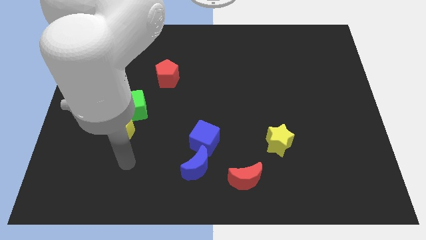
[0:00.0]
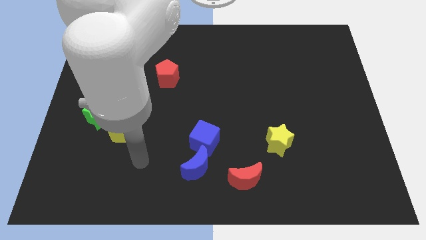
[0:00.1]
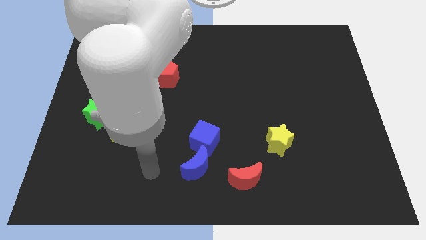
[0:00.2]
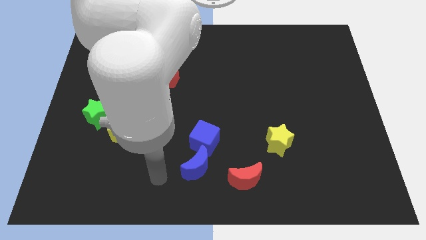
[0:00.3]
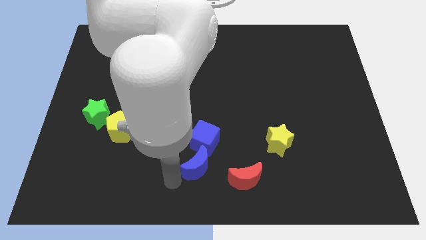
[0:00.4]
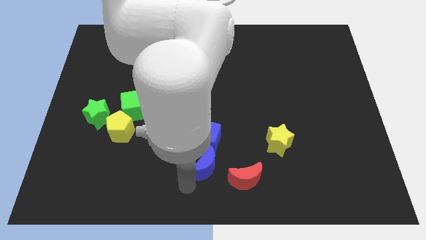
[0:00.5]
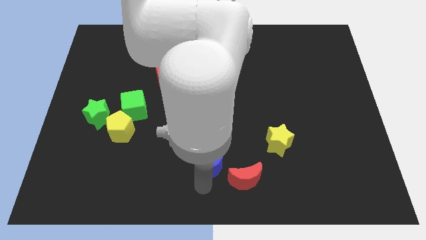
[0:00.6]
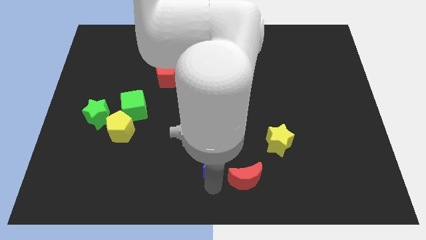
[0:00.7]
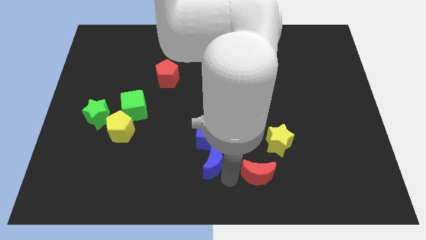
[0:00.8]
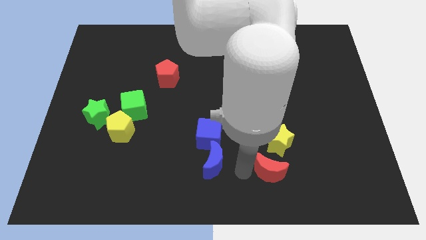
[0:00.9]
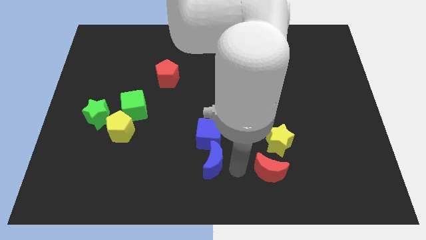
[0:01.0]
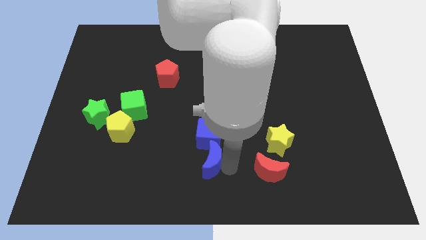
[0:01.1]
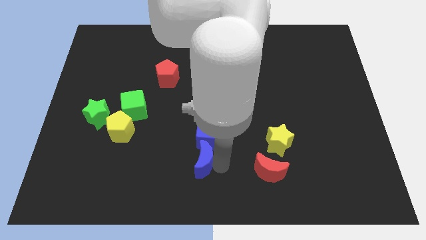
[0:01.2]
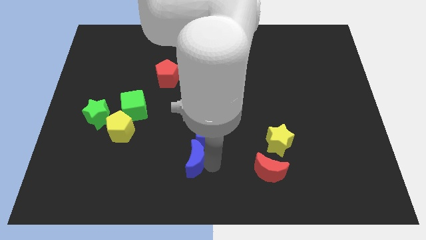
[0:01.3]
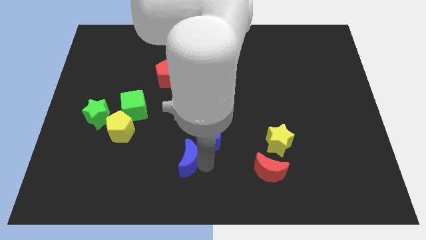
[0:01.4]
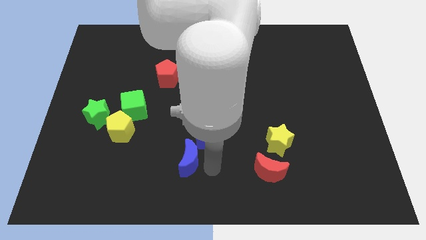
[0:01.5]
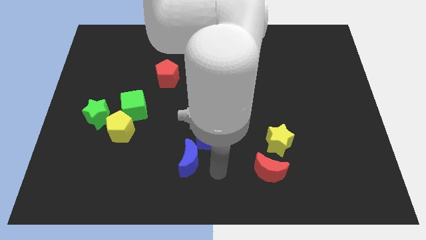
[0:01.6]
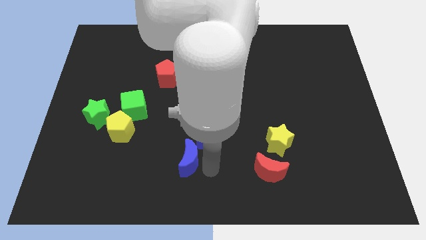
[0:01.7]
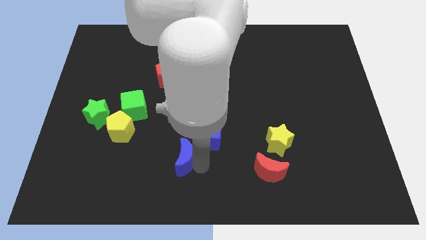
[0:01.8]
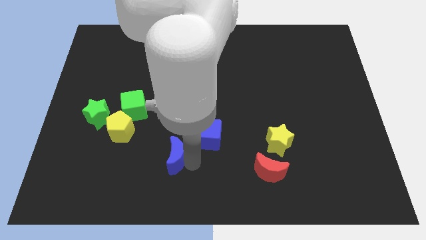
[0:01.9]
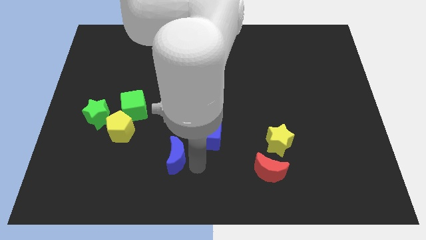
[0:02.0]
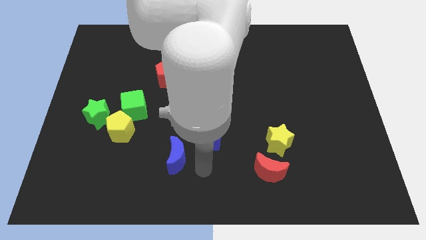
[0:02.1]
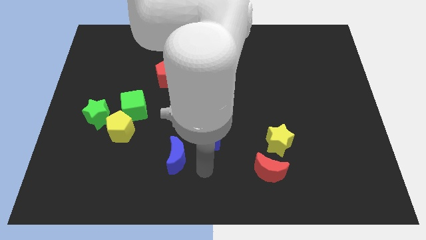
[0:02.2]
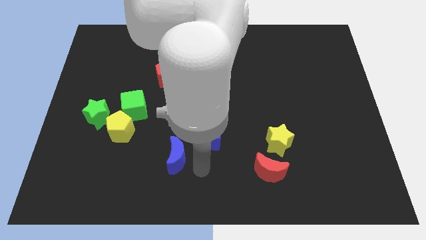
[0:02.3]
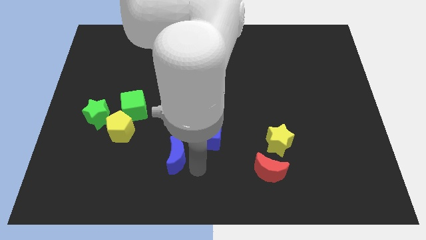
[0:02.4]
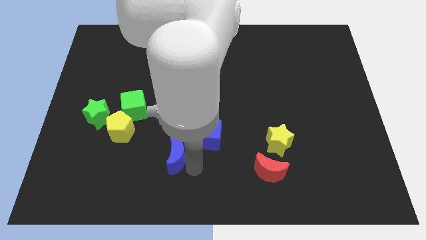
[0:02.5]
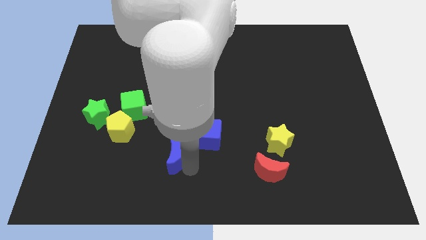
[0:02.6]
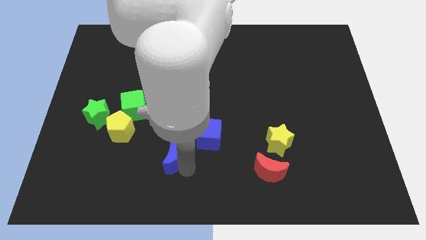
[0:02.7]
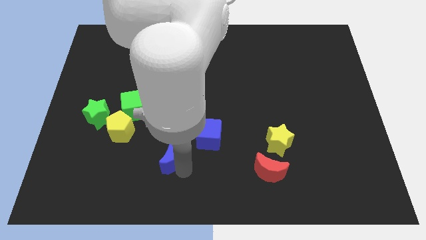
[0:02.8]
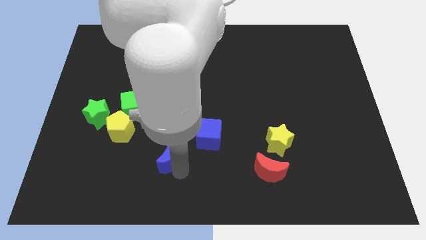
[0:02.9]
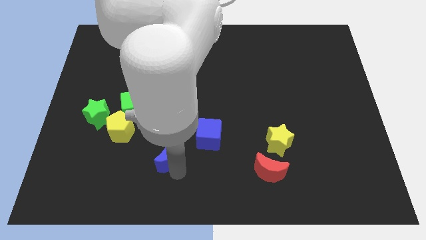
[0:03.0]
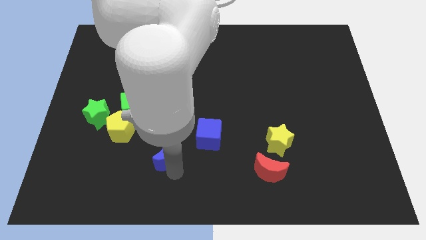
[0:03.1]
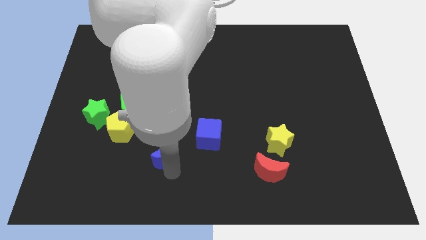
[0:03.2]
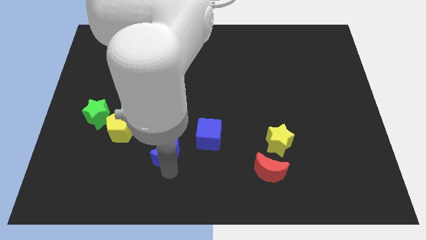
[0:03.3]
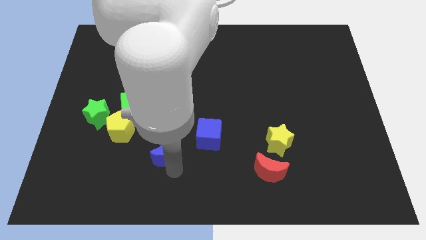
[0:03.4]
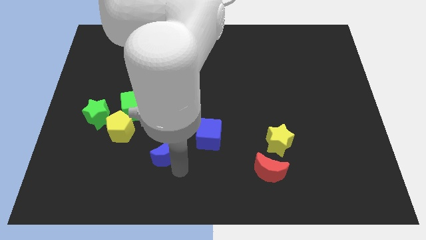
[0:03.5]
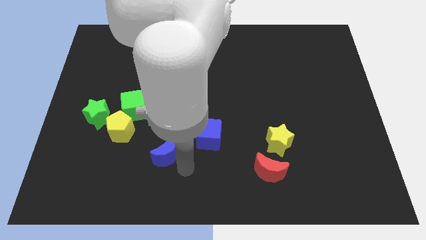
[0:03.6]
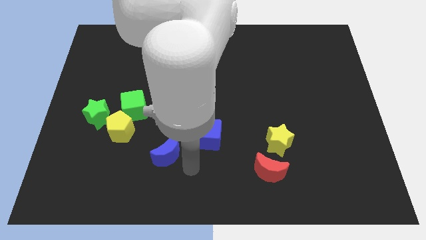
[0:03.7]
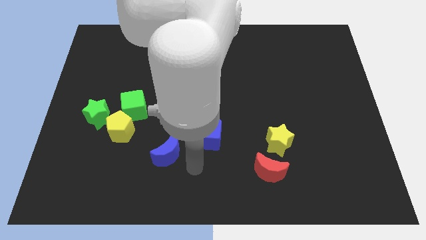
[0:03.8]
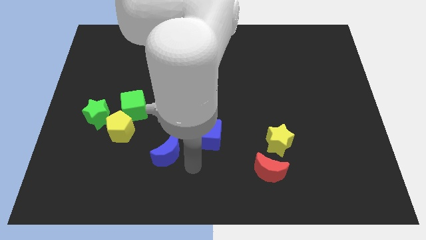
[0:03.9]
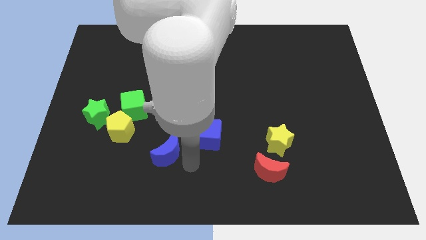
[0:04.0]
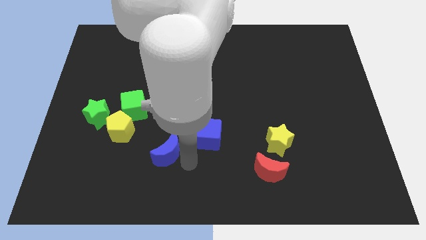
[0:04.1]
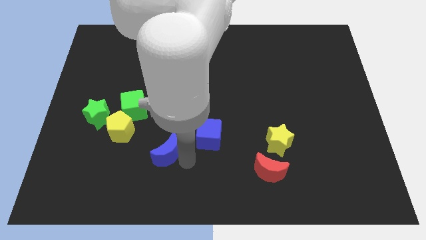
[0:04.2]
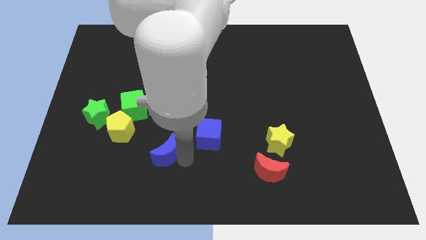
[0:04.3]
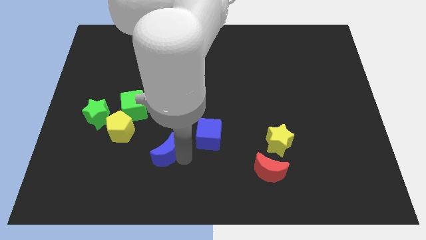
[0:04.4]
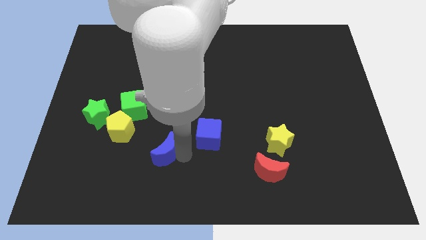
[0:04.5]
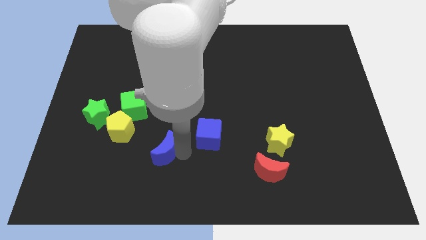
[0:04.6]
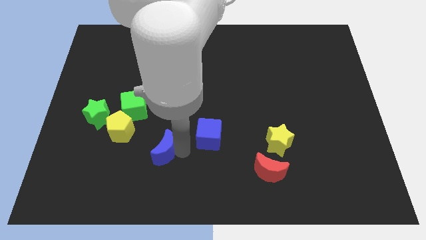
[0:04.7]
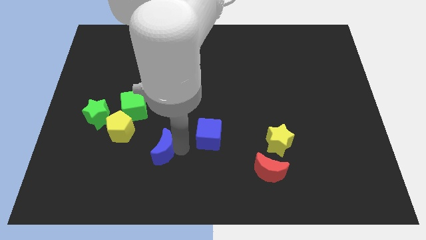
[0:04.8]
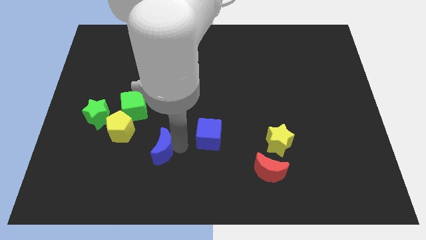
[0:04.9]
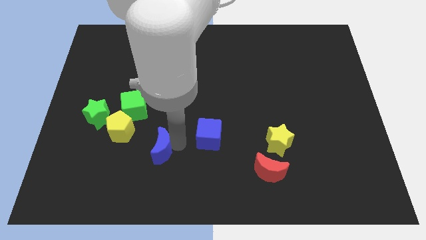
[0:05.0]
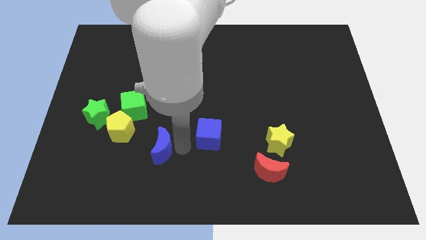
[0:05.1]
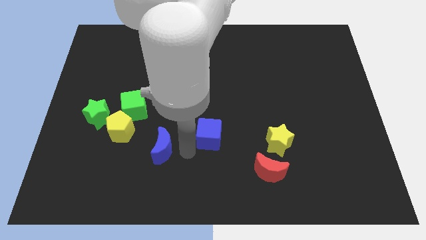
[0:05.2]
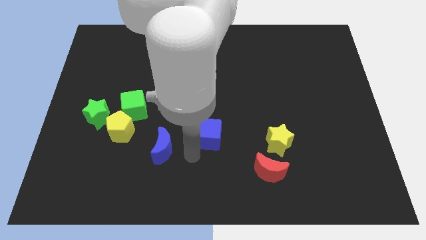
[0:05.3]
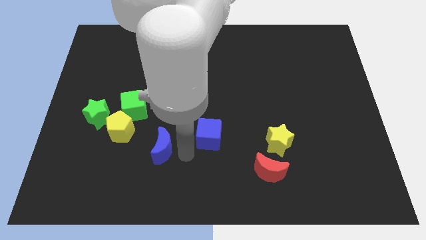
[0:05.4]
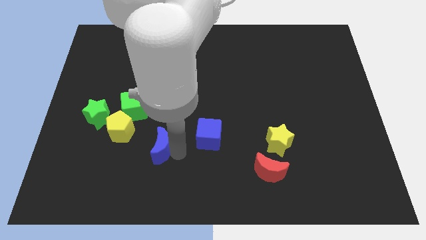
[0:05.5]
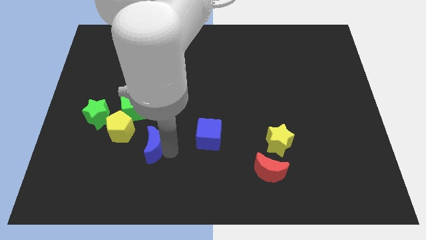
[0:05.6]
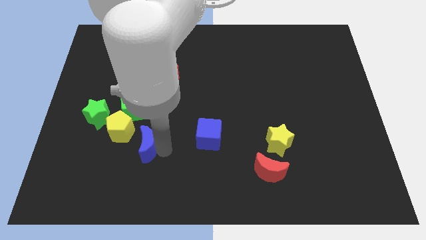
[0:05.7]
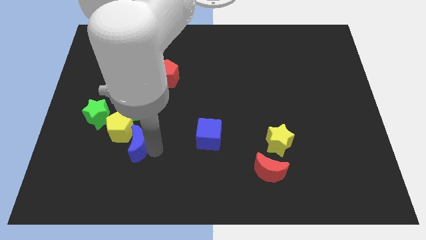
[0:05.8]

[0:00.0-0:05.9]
push the blue moon close to the yellow pentagon

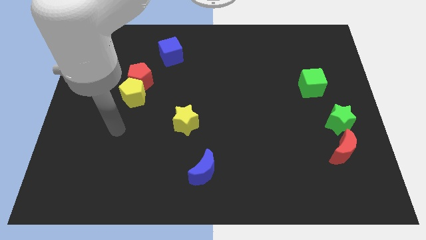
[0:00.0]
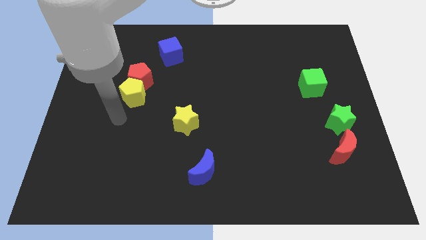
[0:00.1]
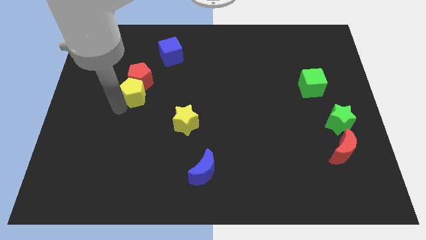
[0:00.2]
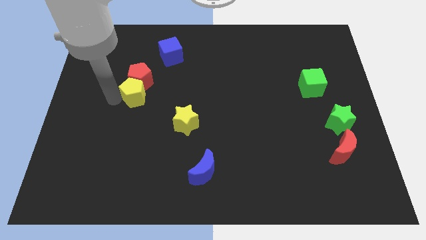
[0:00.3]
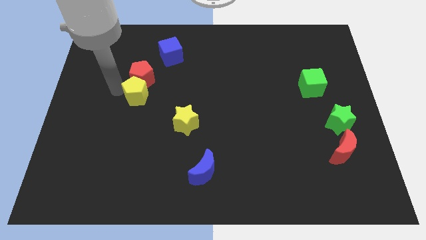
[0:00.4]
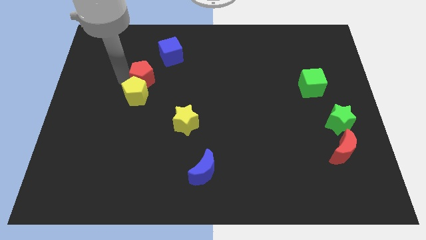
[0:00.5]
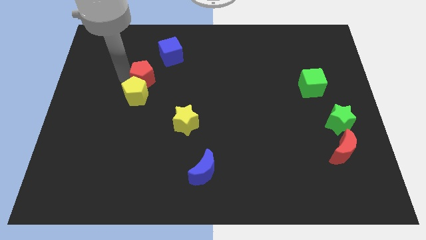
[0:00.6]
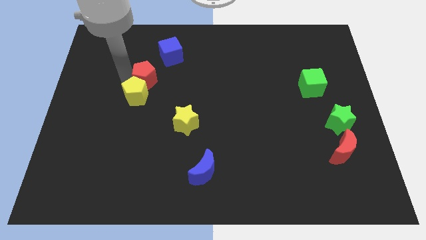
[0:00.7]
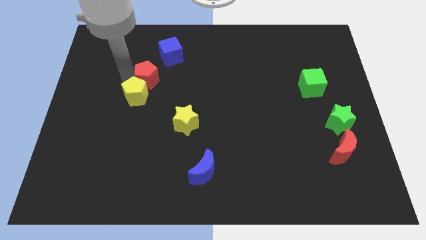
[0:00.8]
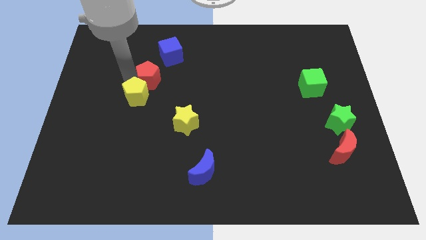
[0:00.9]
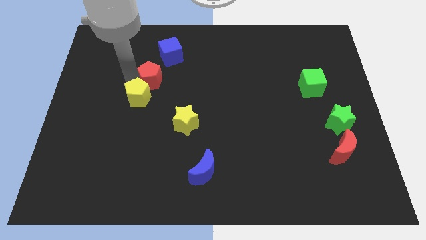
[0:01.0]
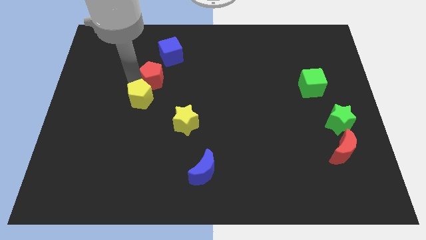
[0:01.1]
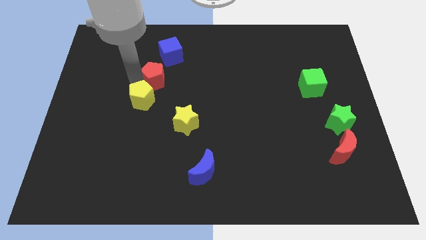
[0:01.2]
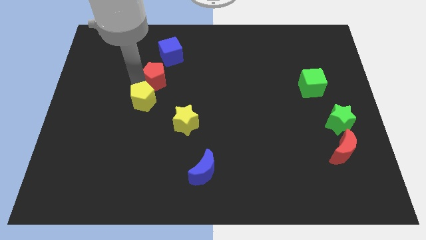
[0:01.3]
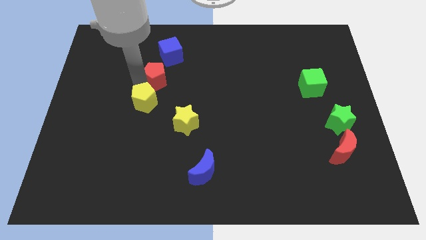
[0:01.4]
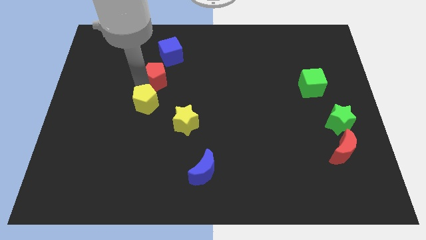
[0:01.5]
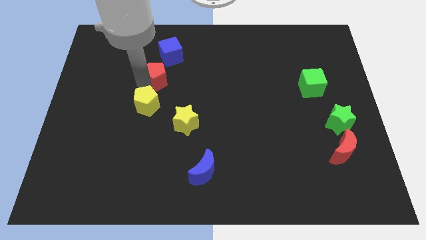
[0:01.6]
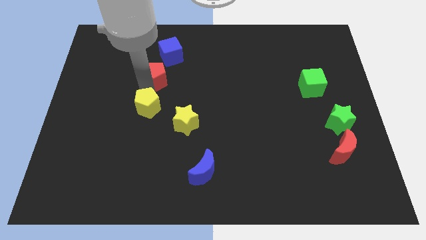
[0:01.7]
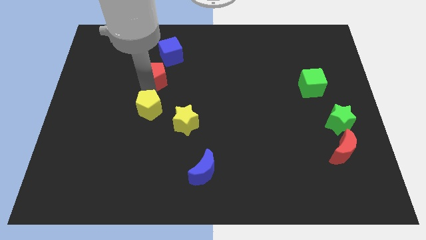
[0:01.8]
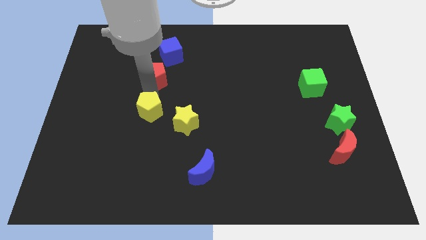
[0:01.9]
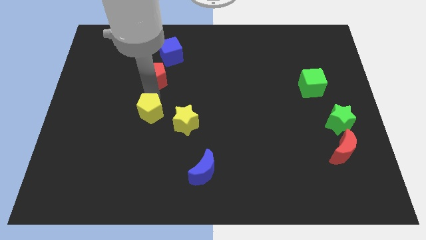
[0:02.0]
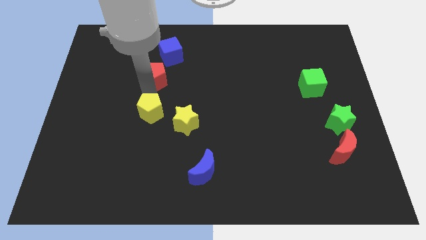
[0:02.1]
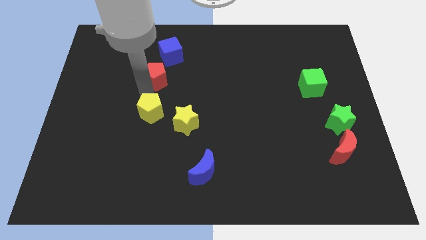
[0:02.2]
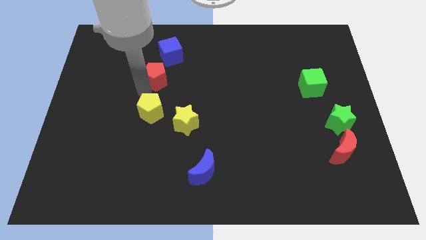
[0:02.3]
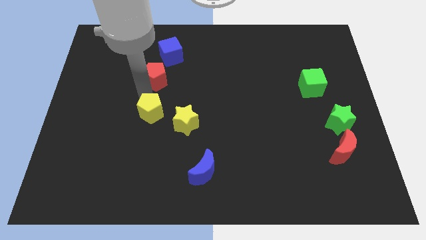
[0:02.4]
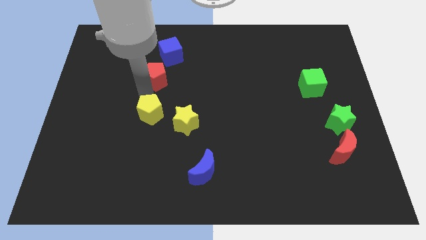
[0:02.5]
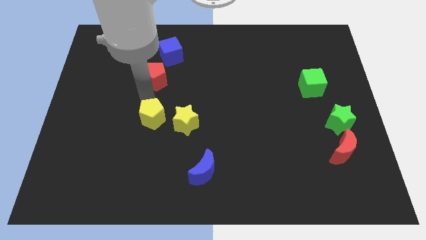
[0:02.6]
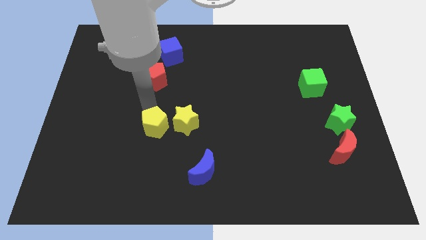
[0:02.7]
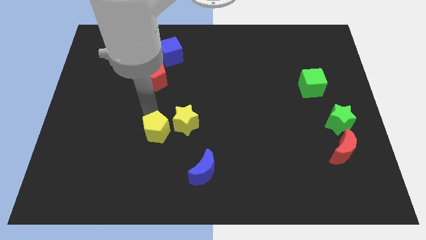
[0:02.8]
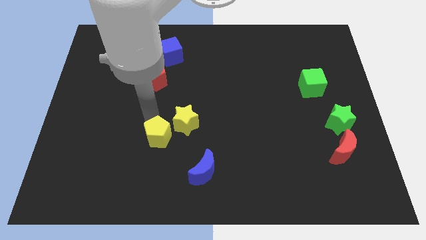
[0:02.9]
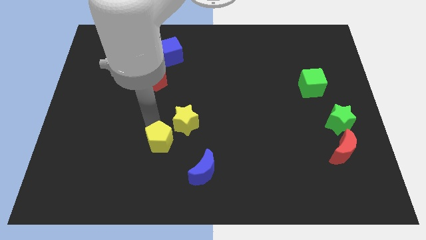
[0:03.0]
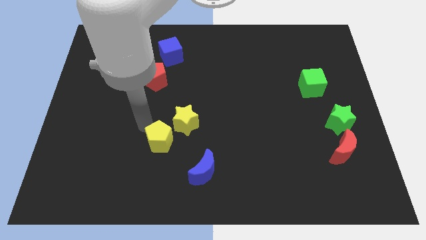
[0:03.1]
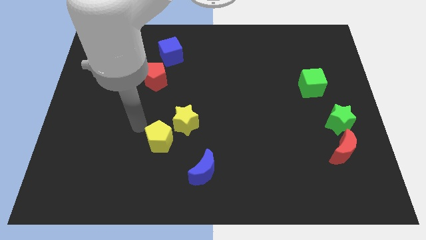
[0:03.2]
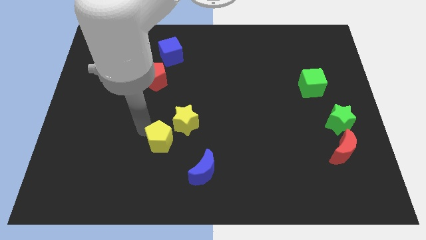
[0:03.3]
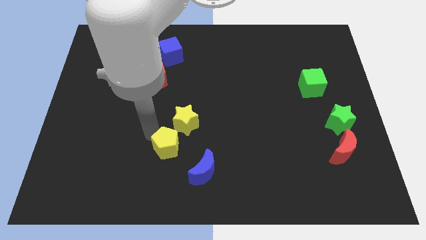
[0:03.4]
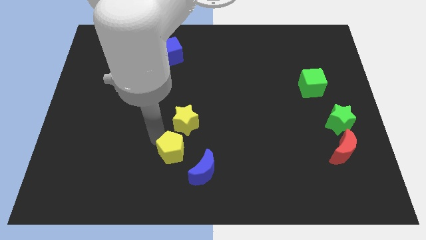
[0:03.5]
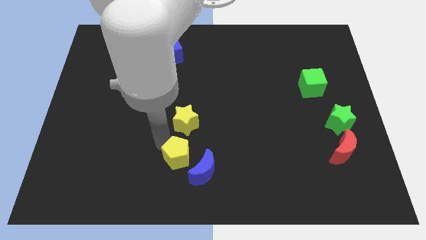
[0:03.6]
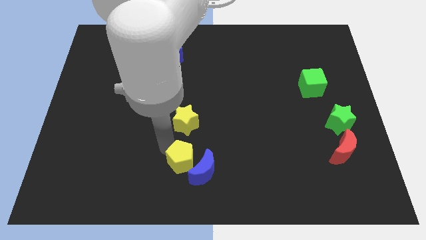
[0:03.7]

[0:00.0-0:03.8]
put the yellow pentagon next to the blue moon
